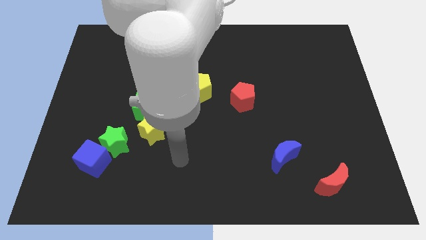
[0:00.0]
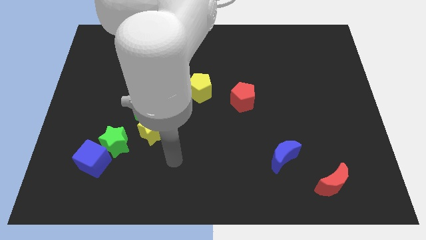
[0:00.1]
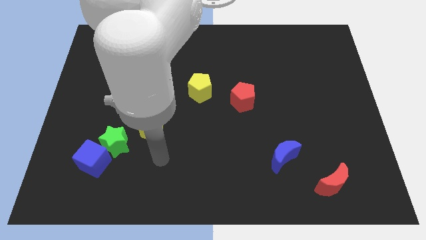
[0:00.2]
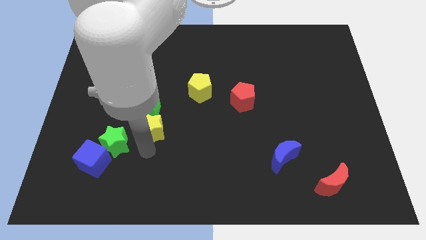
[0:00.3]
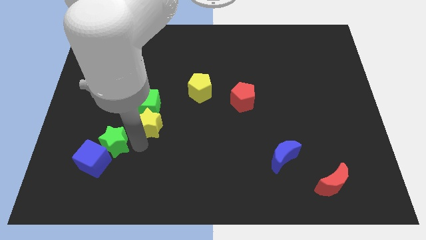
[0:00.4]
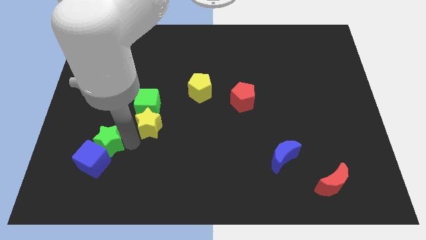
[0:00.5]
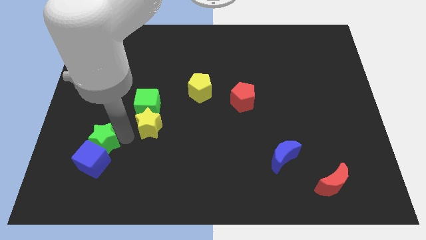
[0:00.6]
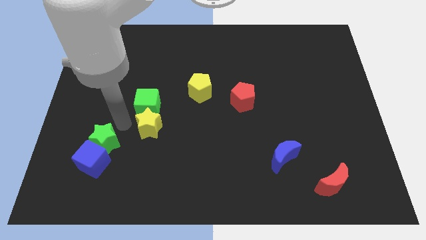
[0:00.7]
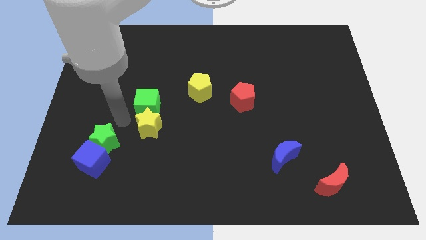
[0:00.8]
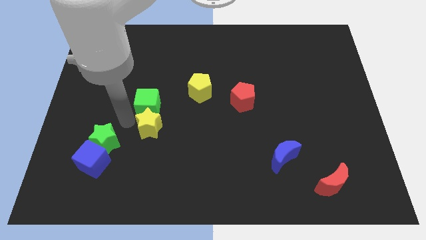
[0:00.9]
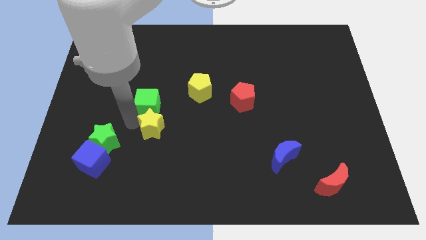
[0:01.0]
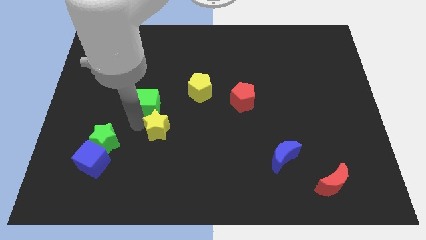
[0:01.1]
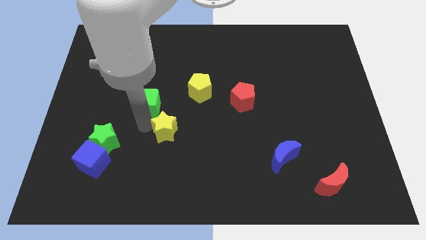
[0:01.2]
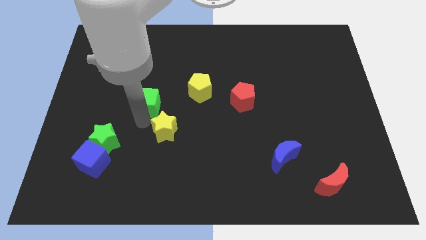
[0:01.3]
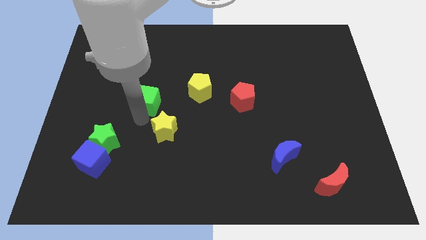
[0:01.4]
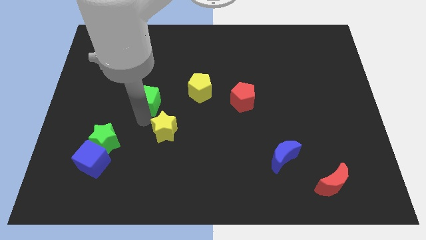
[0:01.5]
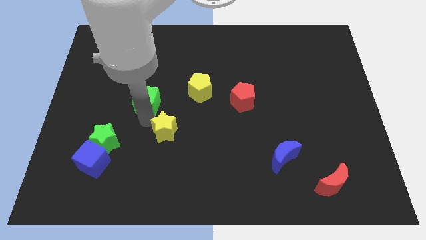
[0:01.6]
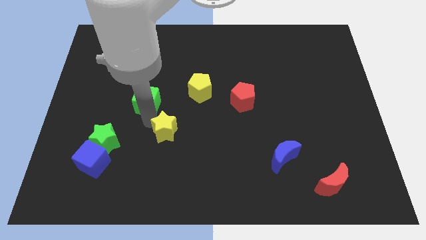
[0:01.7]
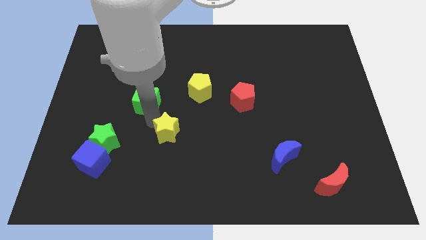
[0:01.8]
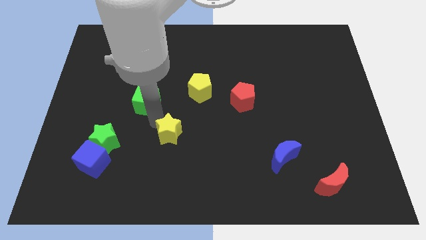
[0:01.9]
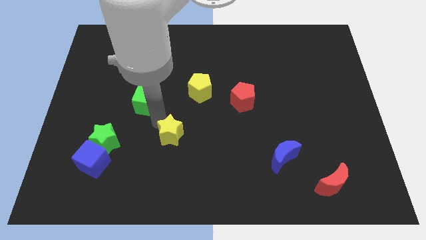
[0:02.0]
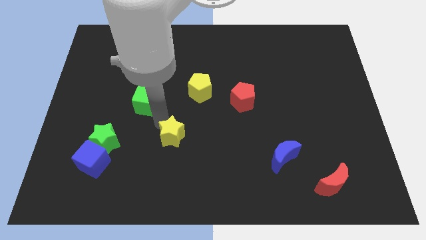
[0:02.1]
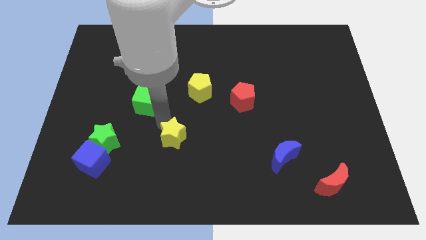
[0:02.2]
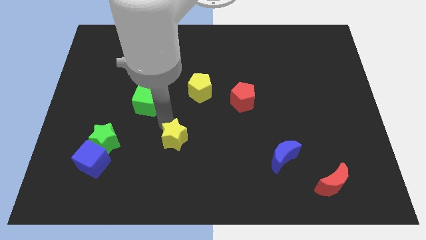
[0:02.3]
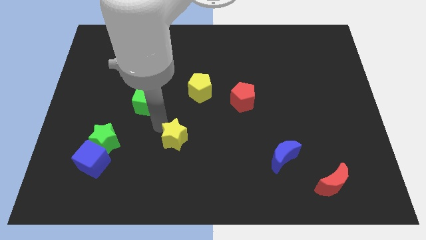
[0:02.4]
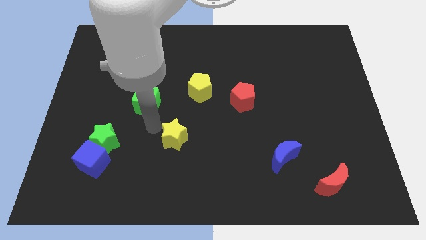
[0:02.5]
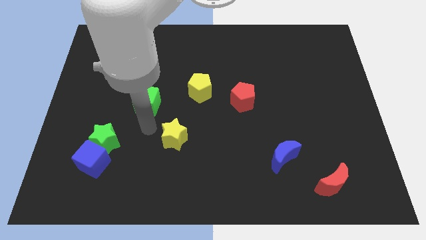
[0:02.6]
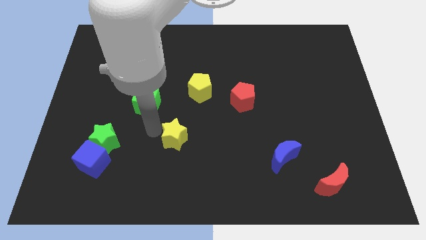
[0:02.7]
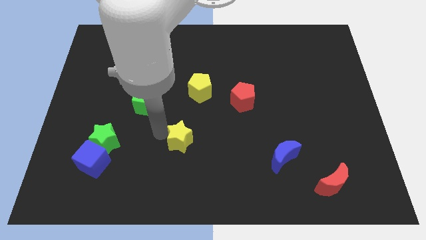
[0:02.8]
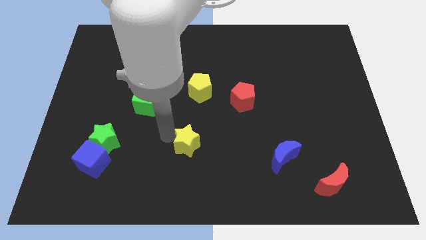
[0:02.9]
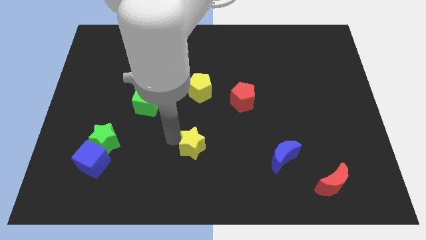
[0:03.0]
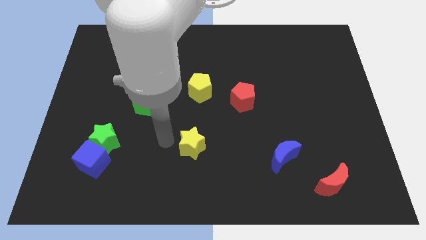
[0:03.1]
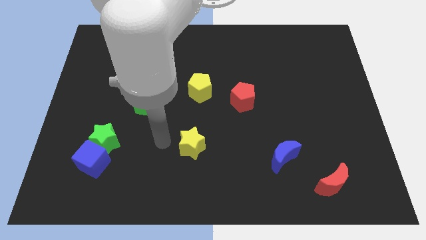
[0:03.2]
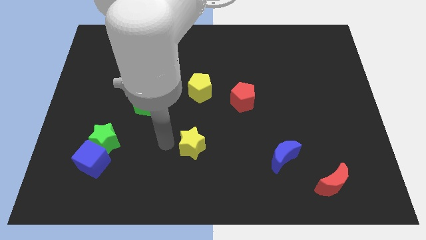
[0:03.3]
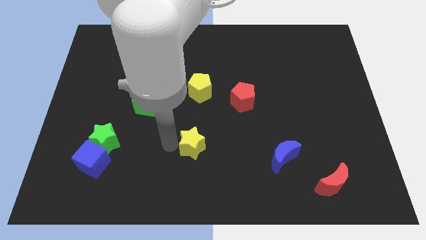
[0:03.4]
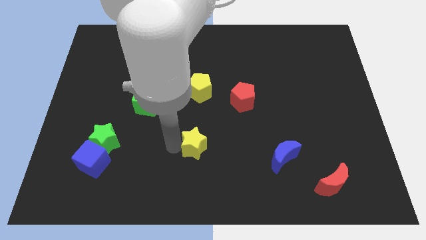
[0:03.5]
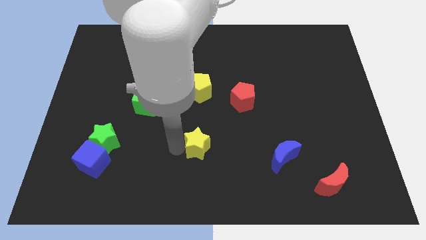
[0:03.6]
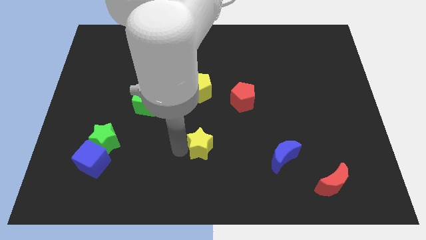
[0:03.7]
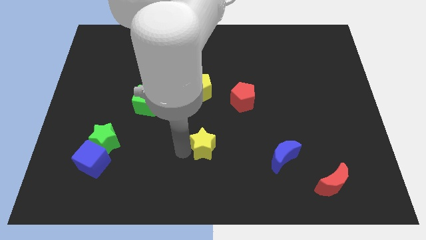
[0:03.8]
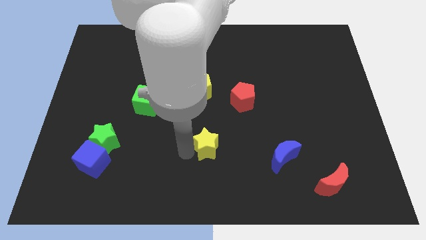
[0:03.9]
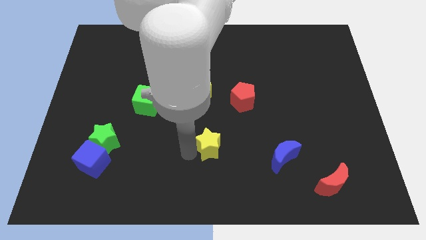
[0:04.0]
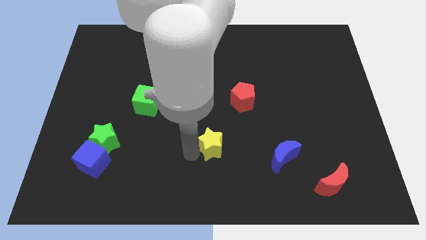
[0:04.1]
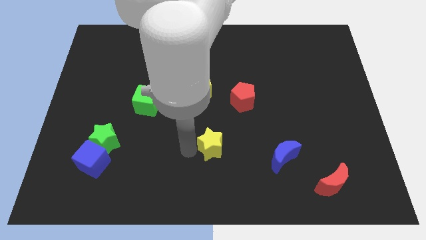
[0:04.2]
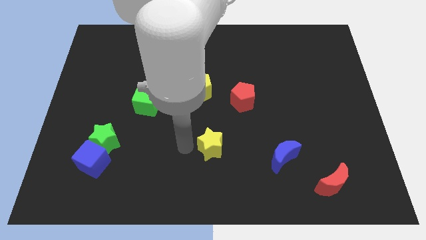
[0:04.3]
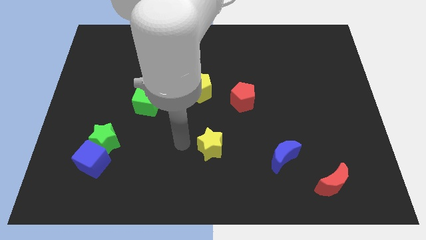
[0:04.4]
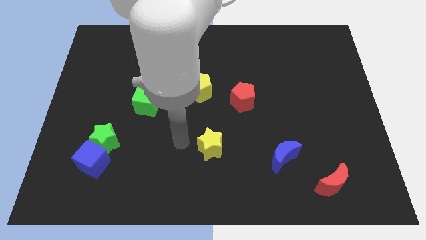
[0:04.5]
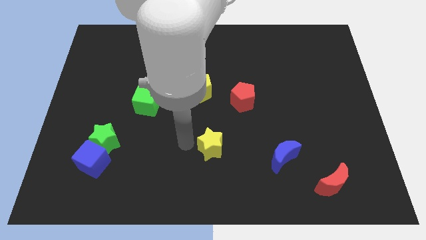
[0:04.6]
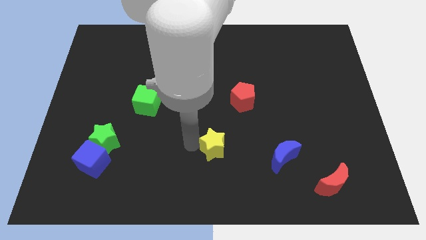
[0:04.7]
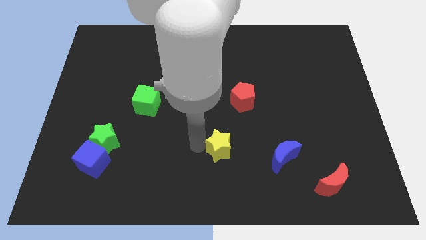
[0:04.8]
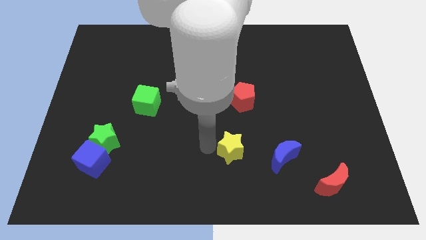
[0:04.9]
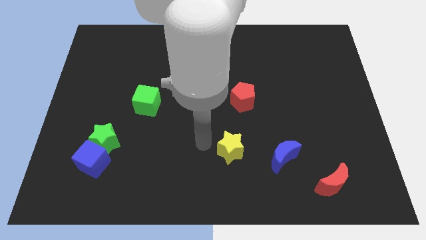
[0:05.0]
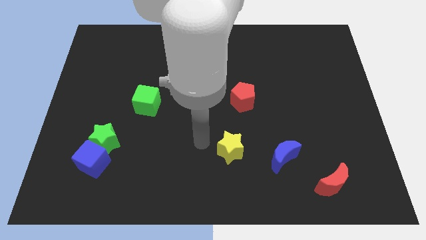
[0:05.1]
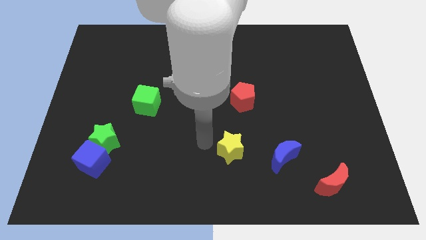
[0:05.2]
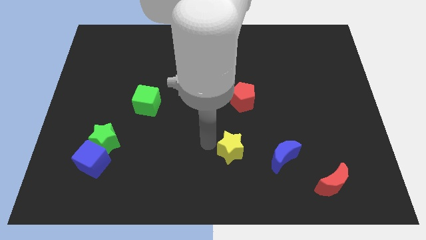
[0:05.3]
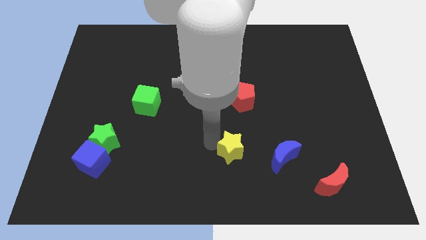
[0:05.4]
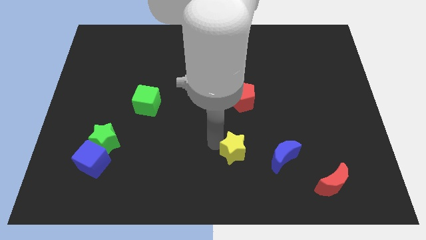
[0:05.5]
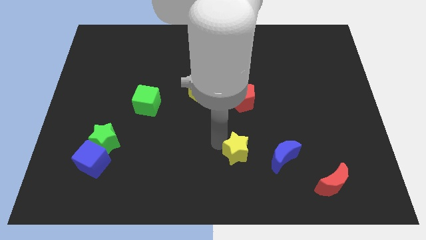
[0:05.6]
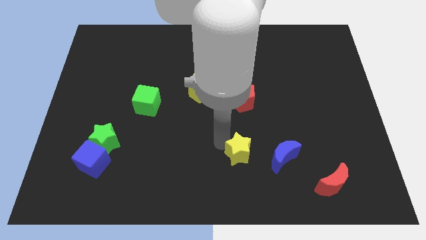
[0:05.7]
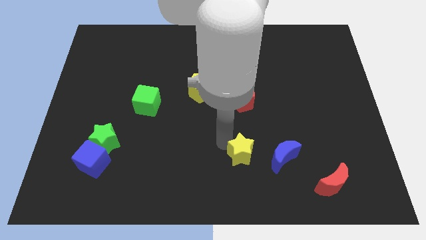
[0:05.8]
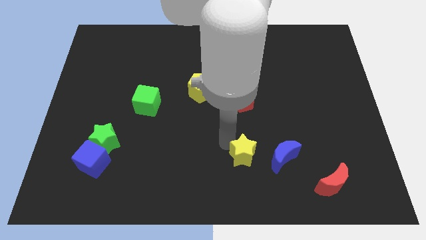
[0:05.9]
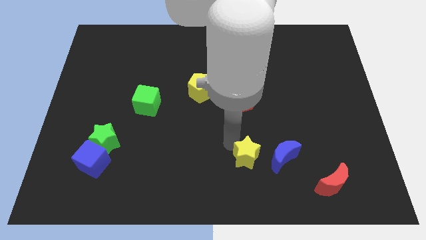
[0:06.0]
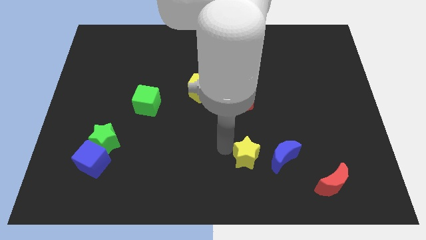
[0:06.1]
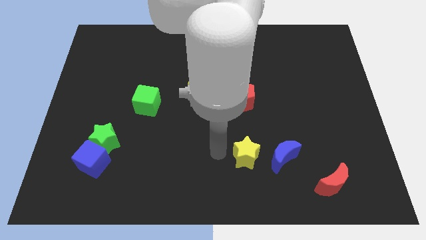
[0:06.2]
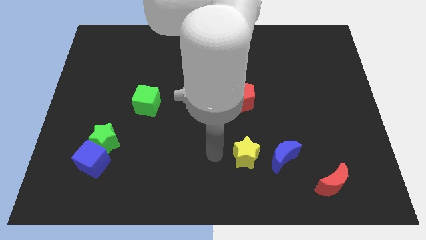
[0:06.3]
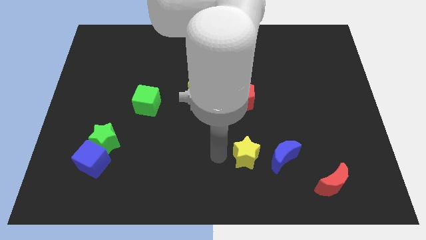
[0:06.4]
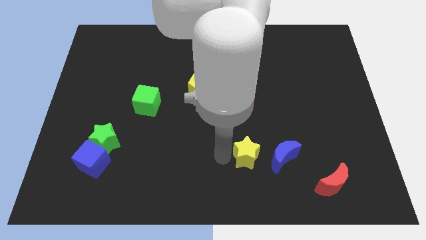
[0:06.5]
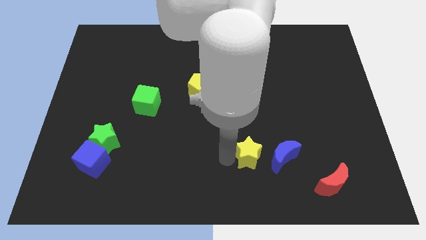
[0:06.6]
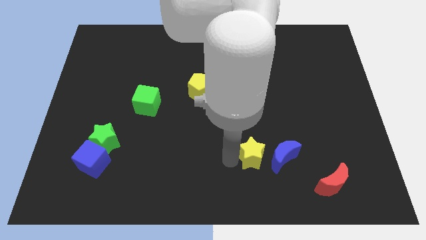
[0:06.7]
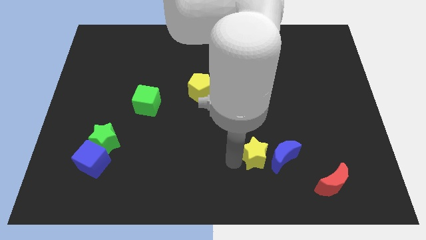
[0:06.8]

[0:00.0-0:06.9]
slide the yellow star next to the blue moon

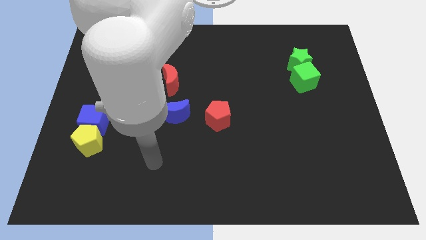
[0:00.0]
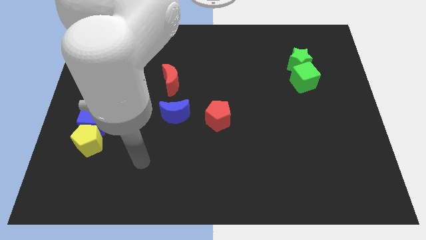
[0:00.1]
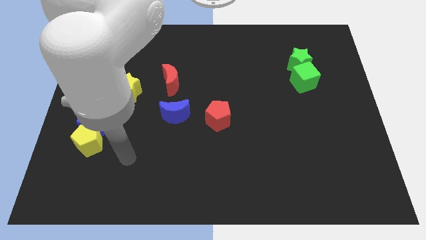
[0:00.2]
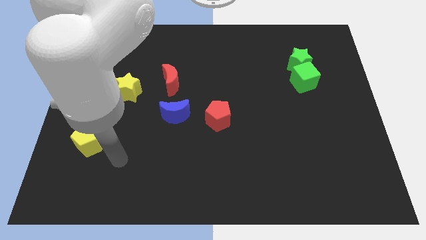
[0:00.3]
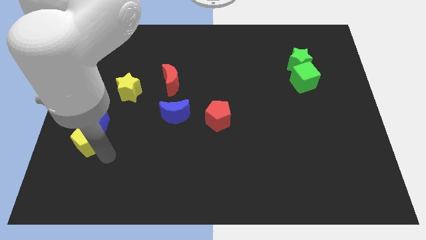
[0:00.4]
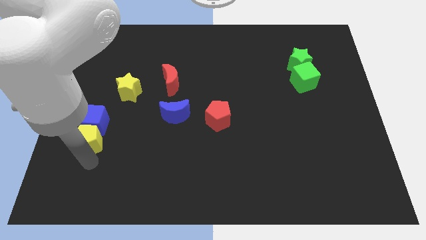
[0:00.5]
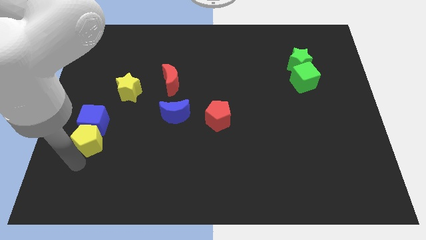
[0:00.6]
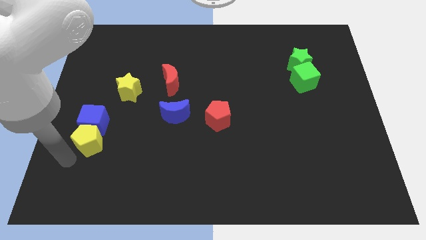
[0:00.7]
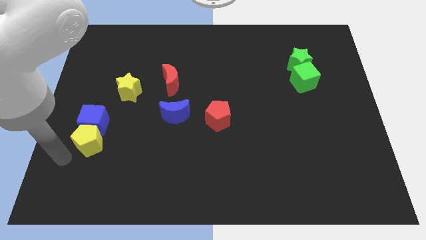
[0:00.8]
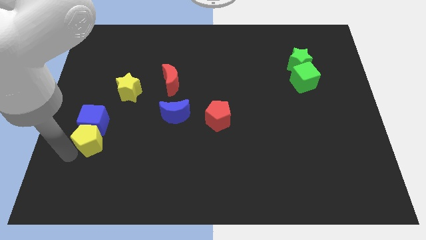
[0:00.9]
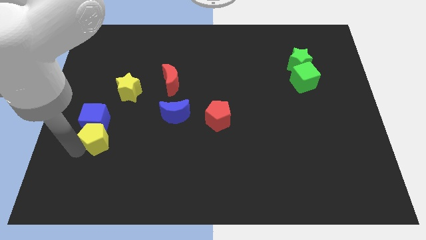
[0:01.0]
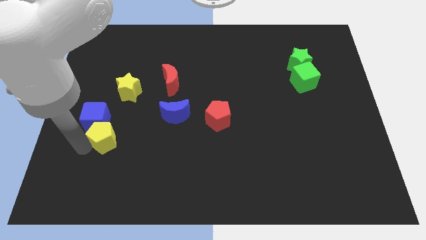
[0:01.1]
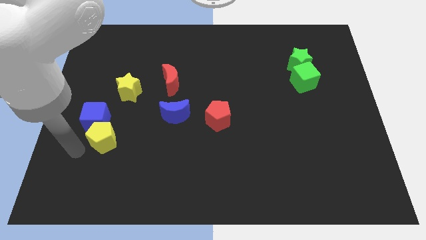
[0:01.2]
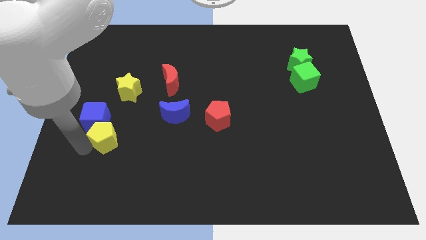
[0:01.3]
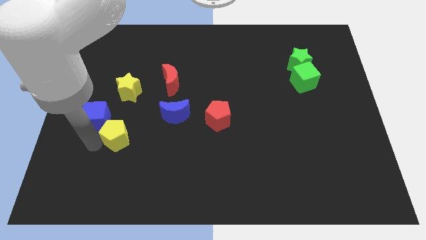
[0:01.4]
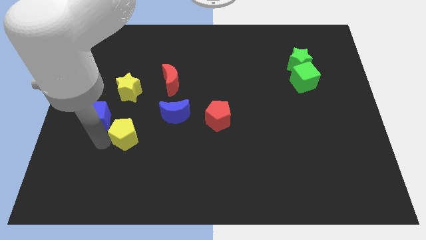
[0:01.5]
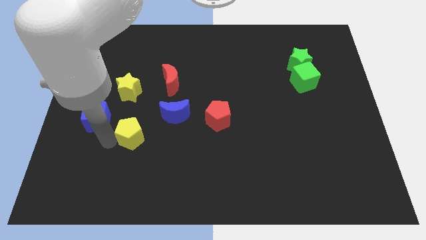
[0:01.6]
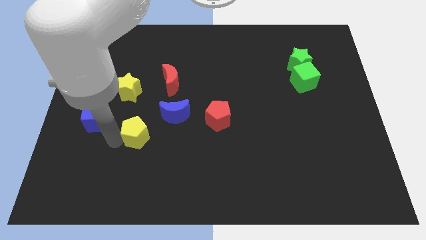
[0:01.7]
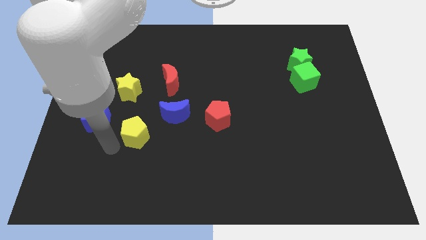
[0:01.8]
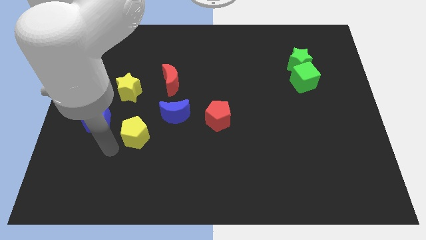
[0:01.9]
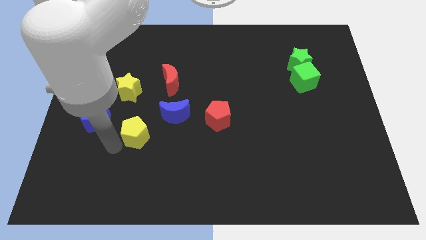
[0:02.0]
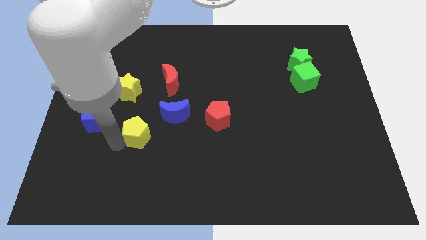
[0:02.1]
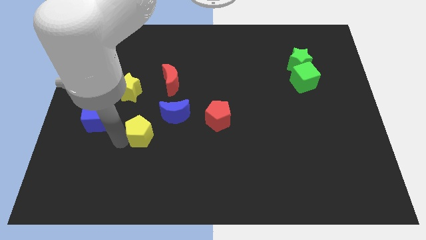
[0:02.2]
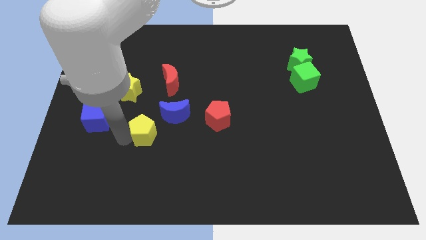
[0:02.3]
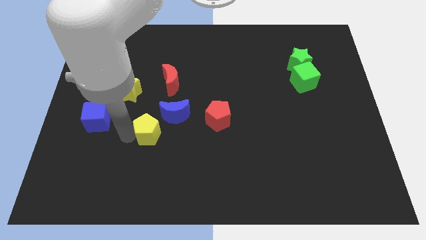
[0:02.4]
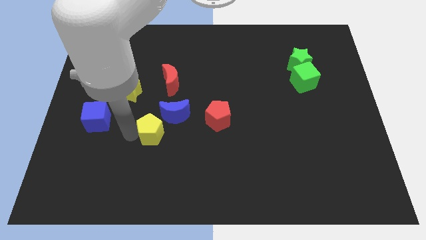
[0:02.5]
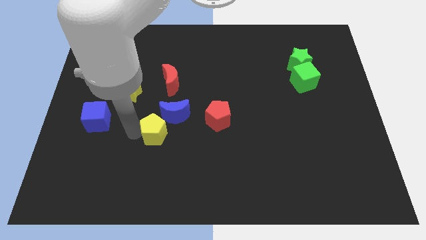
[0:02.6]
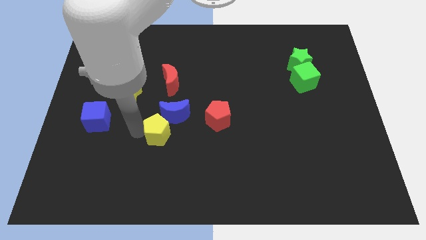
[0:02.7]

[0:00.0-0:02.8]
push the yellow pentagon close to the blue moon
